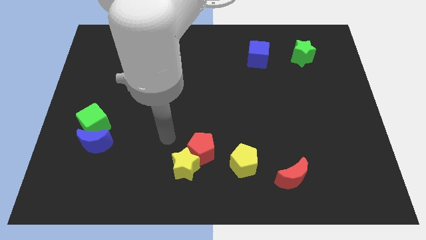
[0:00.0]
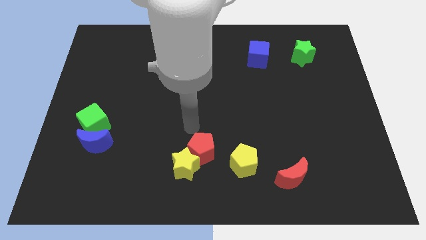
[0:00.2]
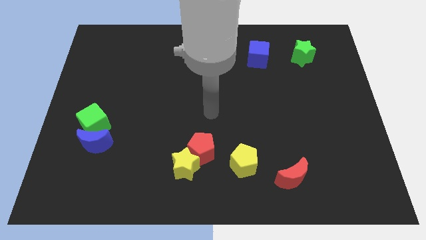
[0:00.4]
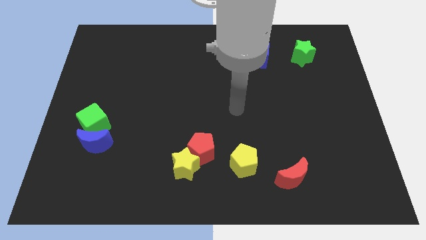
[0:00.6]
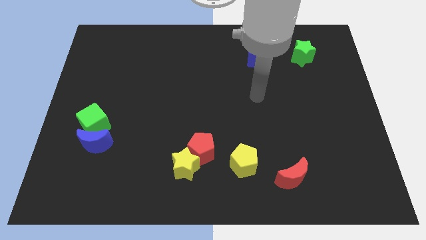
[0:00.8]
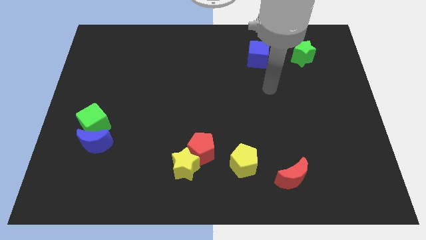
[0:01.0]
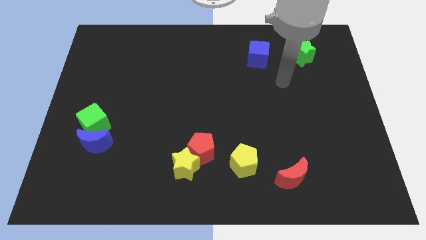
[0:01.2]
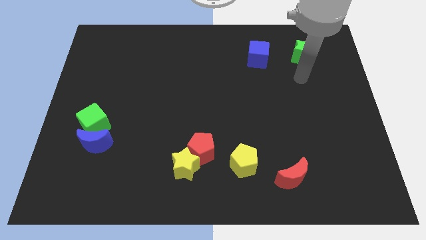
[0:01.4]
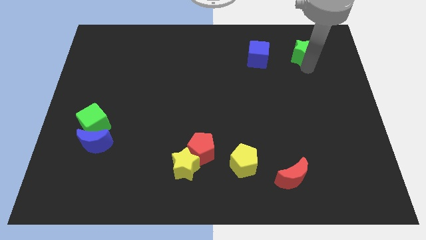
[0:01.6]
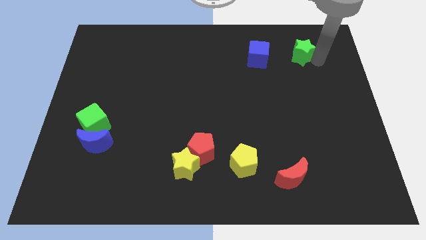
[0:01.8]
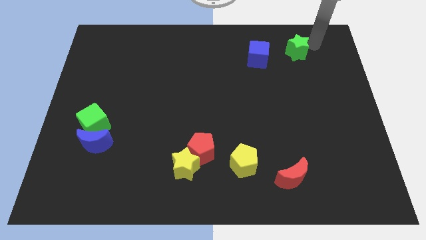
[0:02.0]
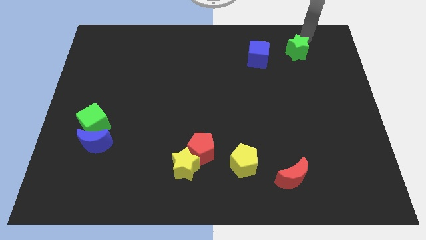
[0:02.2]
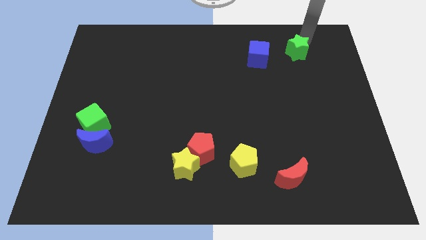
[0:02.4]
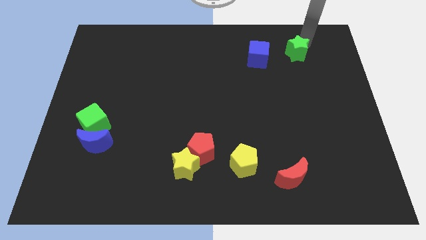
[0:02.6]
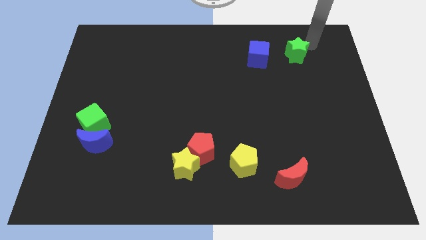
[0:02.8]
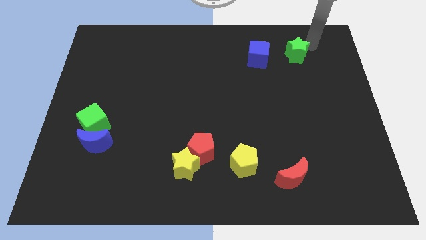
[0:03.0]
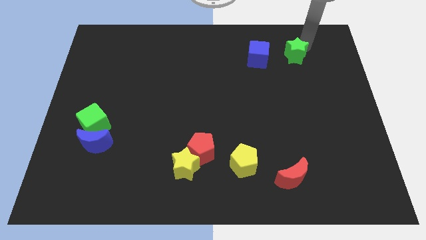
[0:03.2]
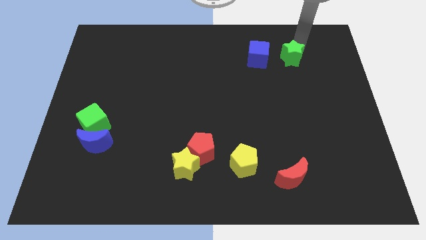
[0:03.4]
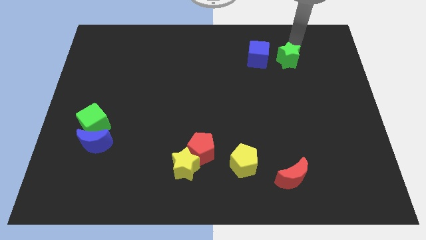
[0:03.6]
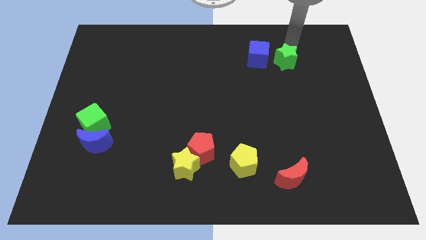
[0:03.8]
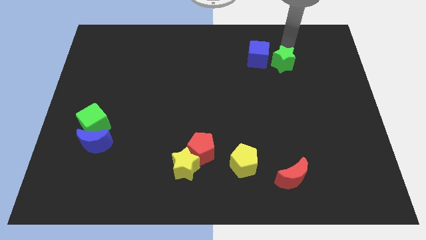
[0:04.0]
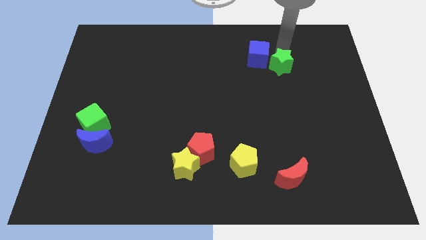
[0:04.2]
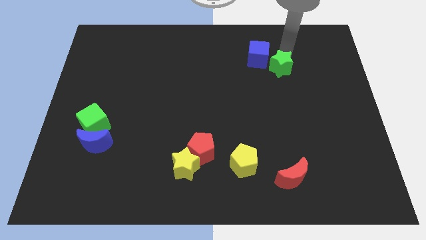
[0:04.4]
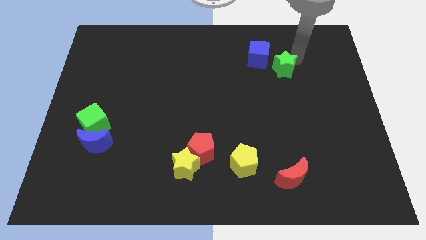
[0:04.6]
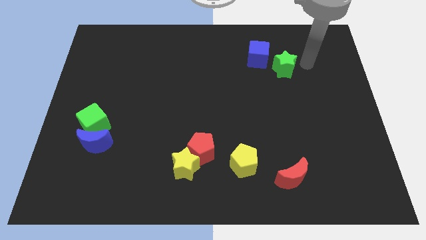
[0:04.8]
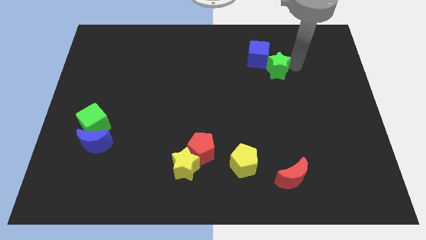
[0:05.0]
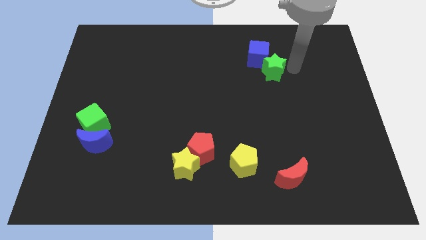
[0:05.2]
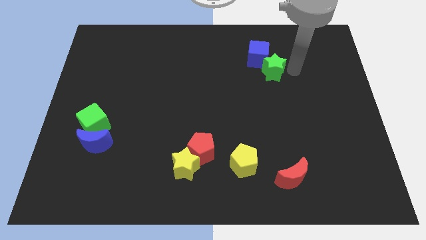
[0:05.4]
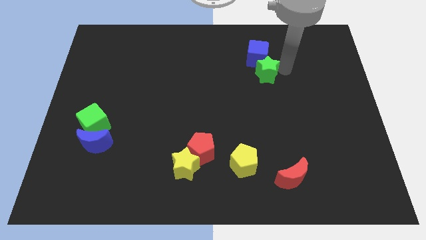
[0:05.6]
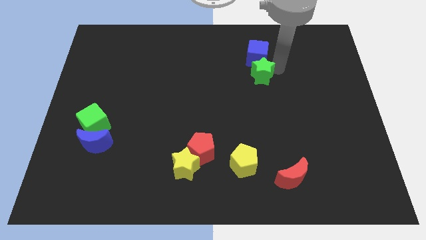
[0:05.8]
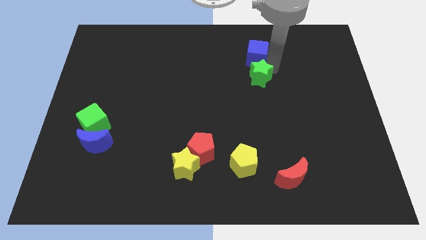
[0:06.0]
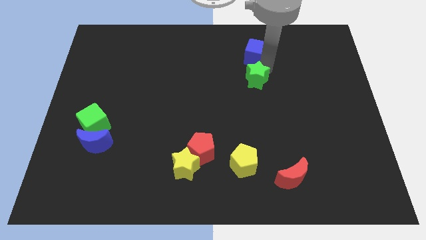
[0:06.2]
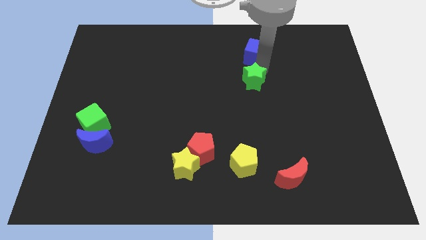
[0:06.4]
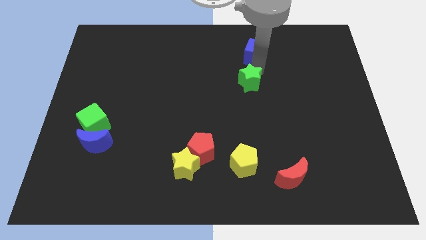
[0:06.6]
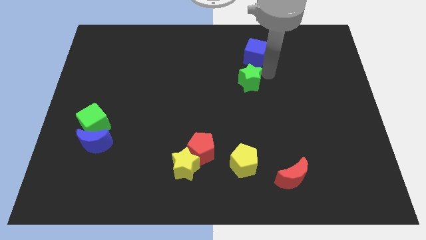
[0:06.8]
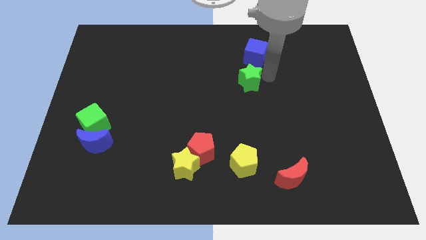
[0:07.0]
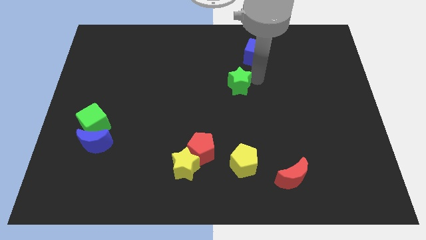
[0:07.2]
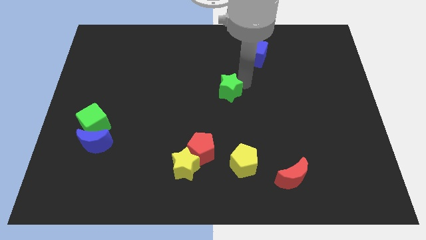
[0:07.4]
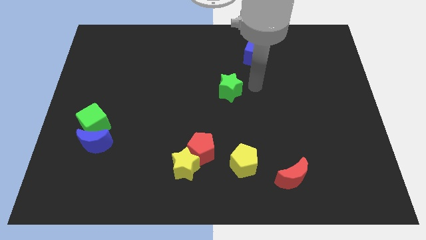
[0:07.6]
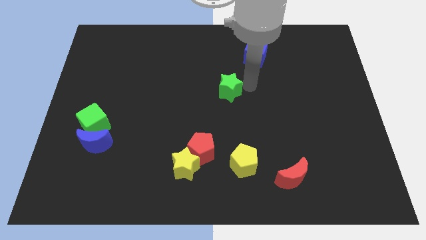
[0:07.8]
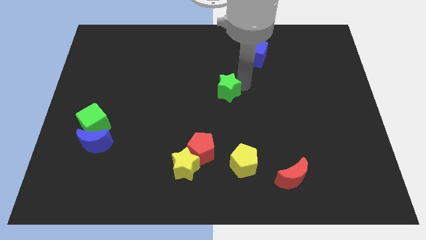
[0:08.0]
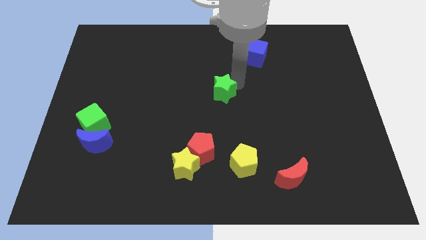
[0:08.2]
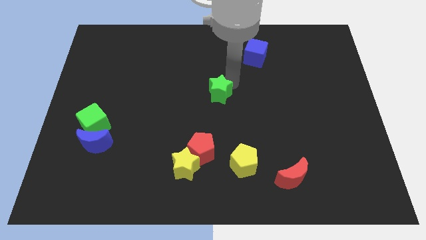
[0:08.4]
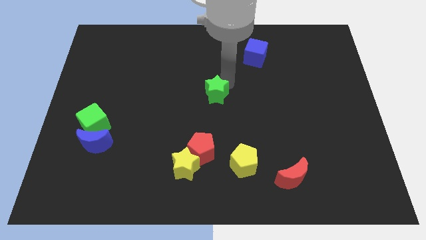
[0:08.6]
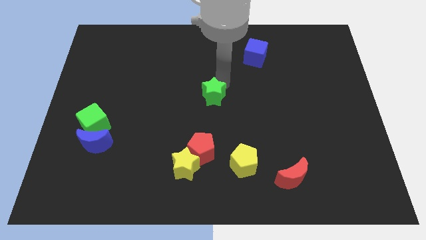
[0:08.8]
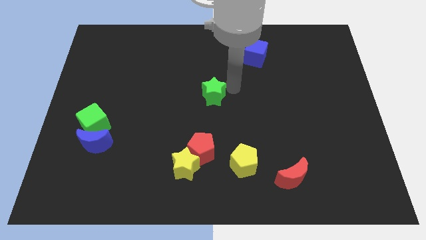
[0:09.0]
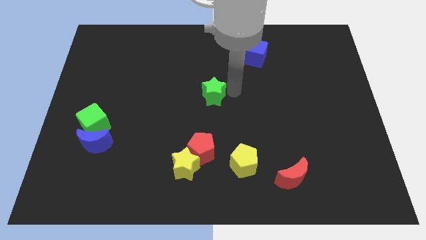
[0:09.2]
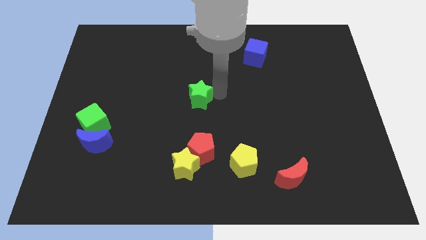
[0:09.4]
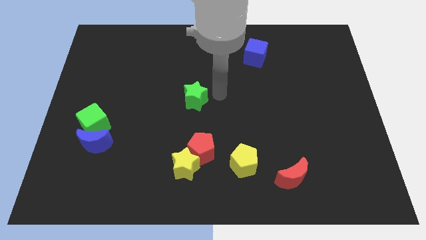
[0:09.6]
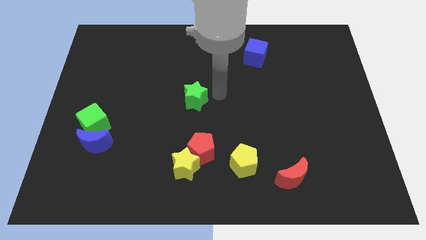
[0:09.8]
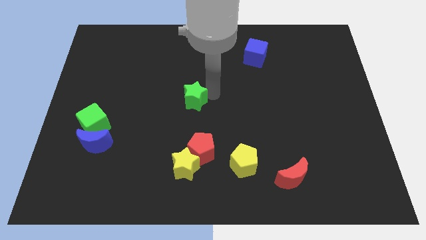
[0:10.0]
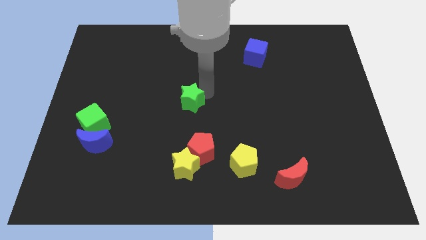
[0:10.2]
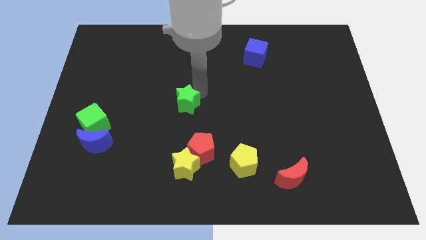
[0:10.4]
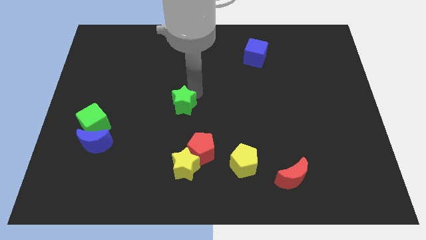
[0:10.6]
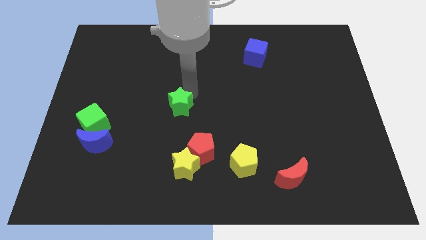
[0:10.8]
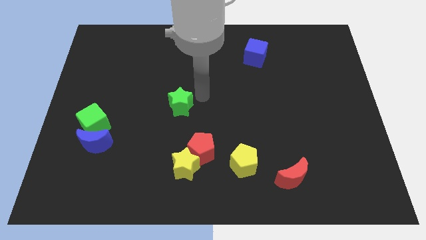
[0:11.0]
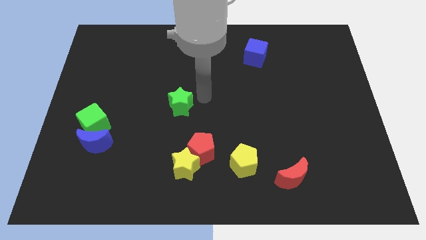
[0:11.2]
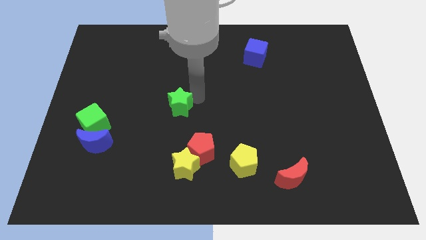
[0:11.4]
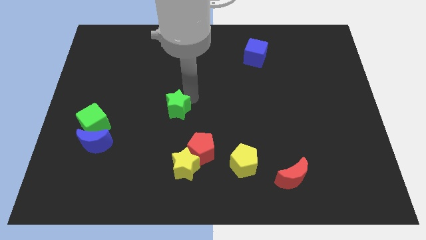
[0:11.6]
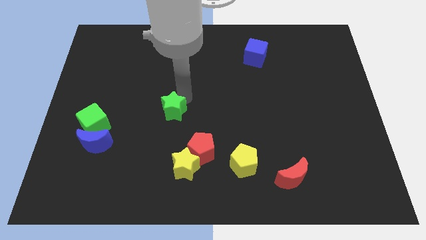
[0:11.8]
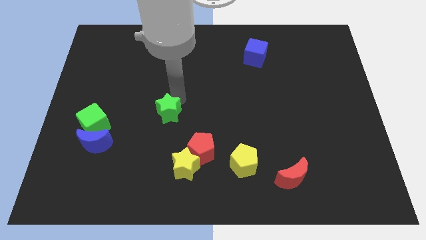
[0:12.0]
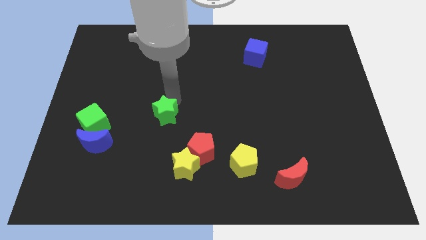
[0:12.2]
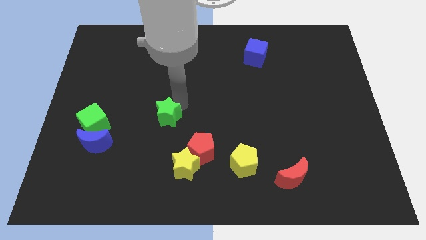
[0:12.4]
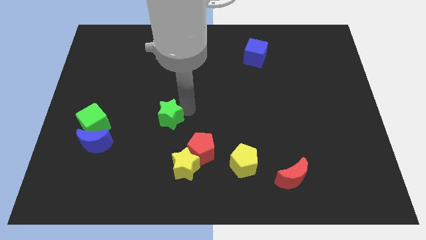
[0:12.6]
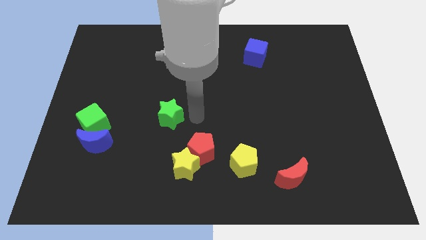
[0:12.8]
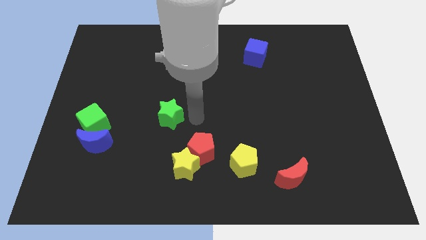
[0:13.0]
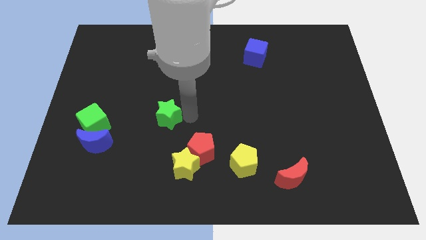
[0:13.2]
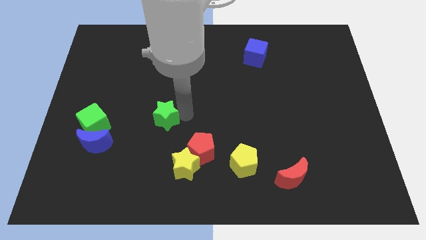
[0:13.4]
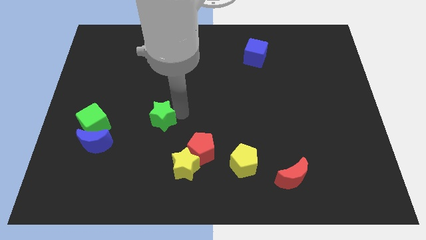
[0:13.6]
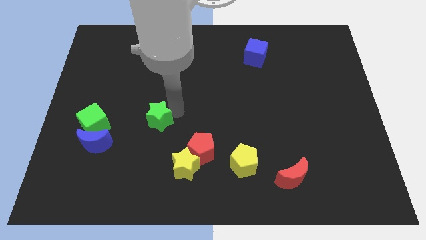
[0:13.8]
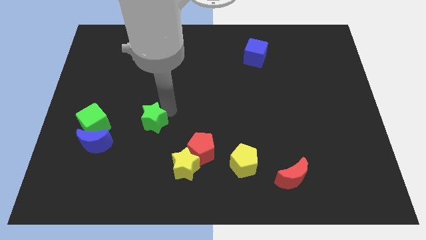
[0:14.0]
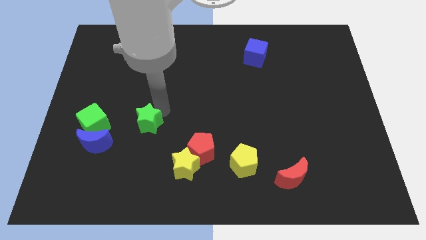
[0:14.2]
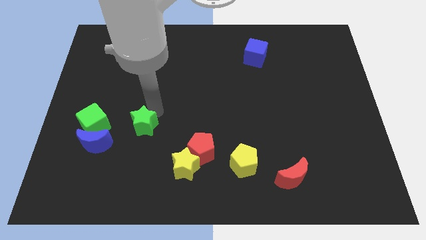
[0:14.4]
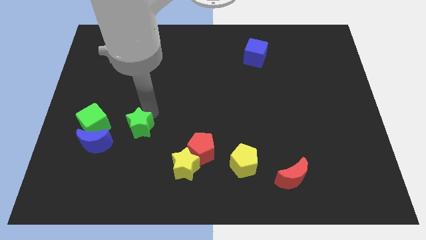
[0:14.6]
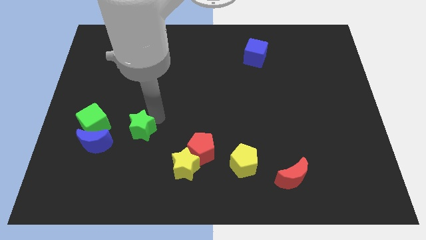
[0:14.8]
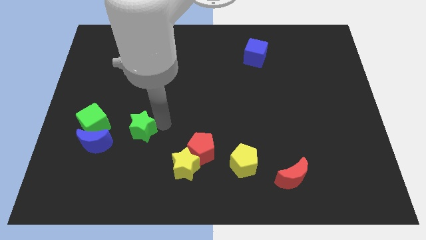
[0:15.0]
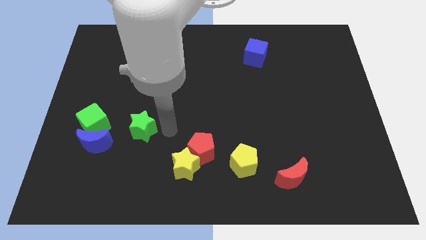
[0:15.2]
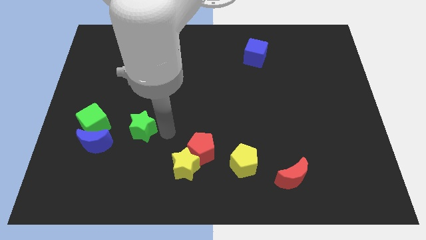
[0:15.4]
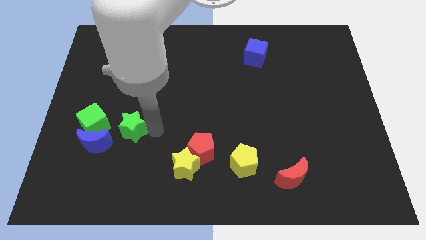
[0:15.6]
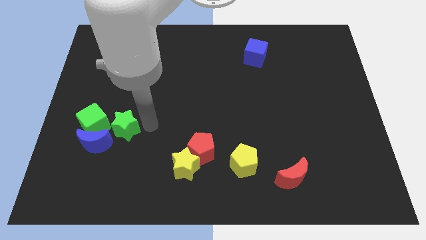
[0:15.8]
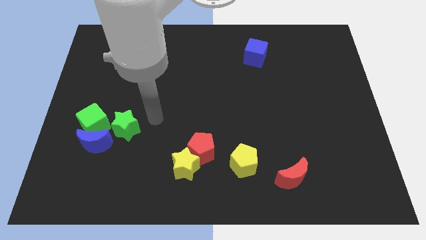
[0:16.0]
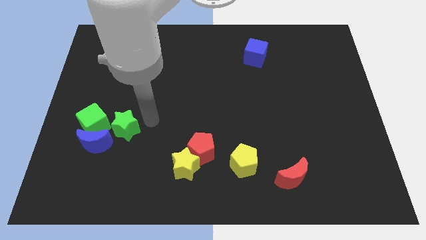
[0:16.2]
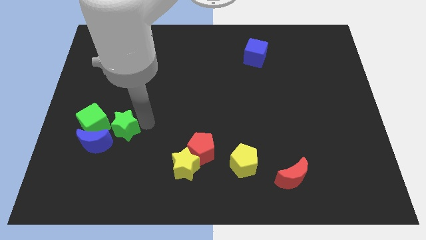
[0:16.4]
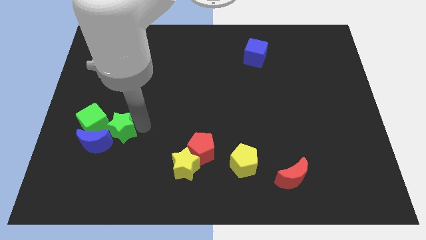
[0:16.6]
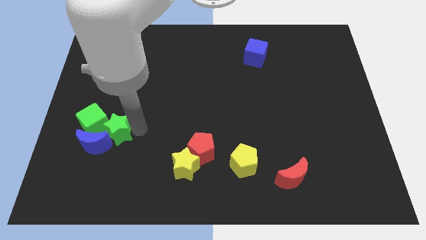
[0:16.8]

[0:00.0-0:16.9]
slide the green star towards the blue moon
